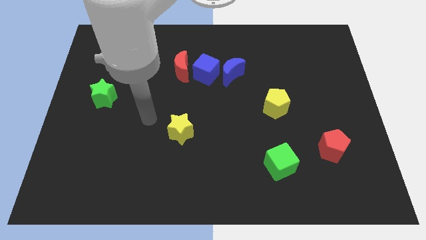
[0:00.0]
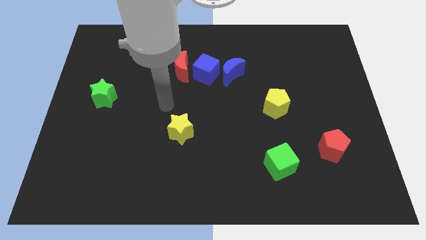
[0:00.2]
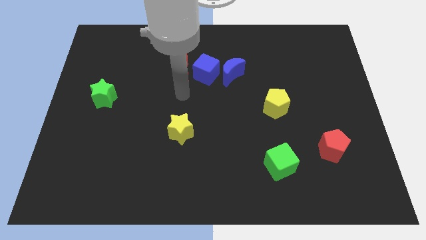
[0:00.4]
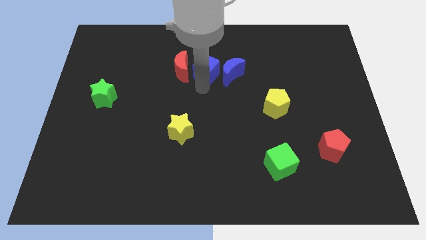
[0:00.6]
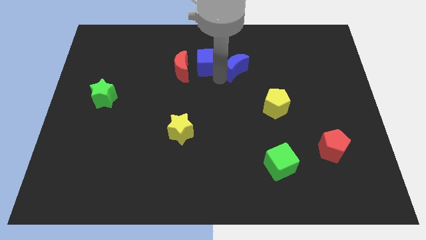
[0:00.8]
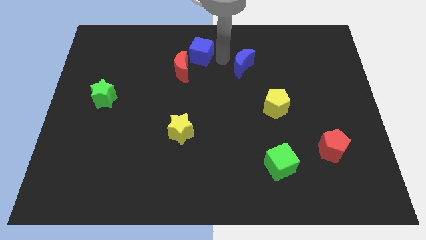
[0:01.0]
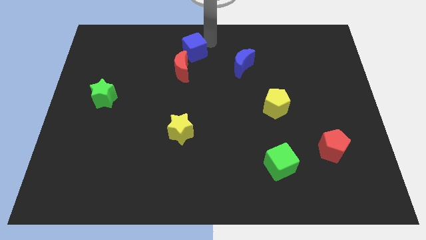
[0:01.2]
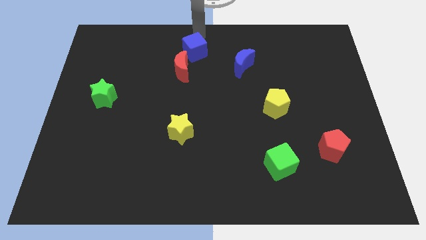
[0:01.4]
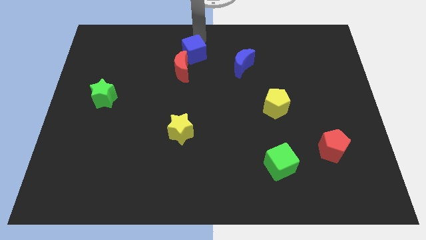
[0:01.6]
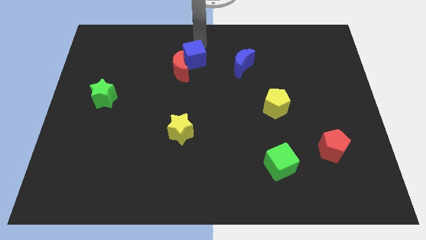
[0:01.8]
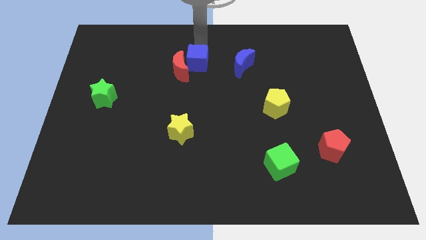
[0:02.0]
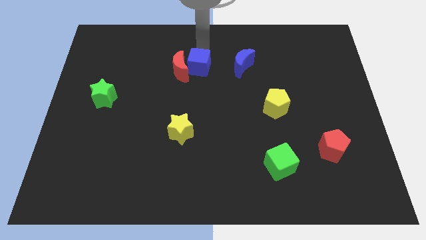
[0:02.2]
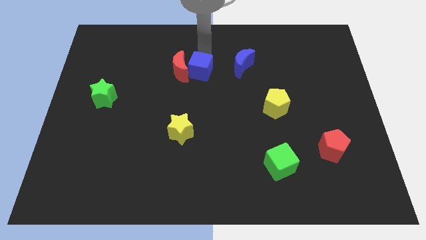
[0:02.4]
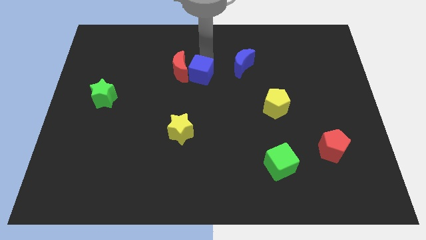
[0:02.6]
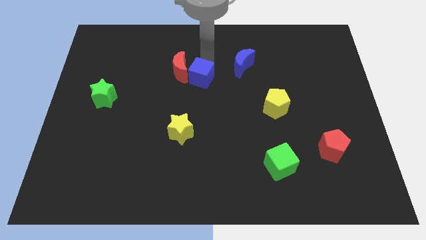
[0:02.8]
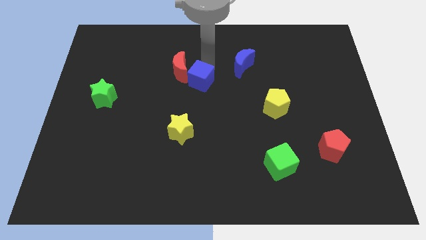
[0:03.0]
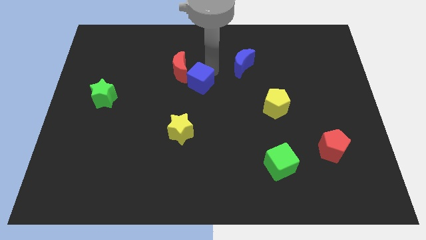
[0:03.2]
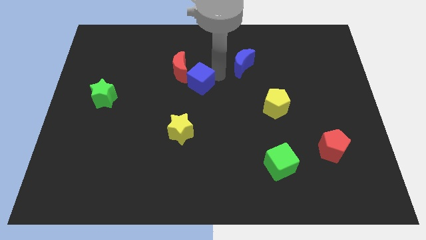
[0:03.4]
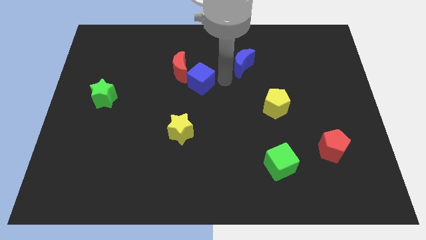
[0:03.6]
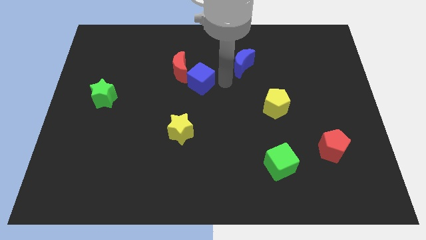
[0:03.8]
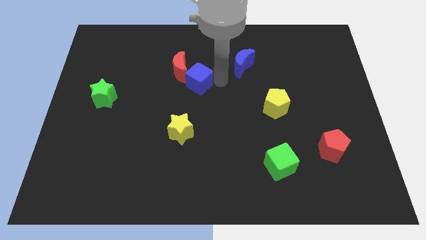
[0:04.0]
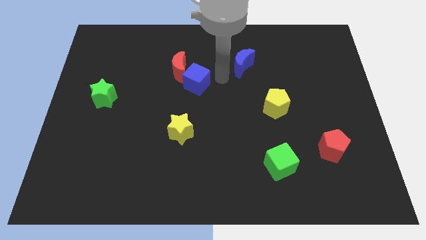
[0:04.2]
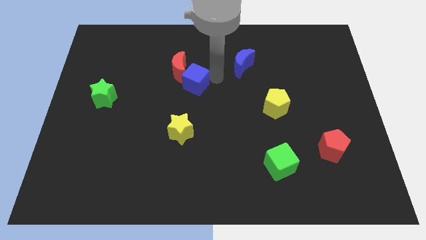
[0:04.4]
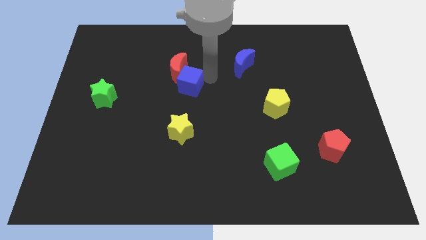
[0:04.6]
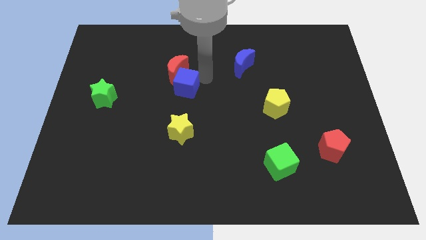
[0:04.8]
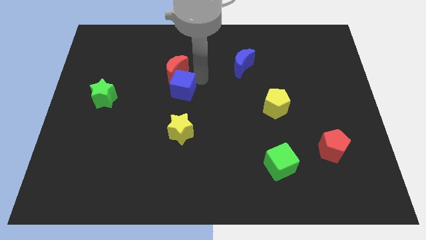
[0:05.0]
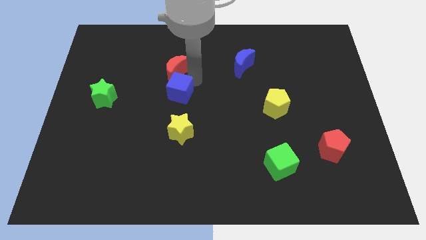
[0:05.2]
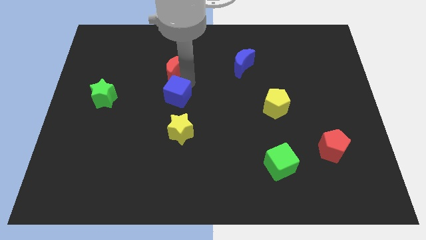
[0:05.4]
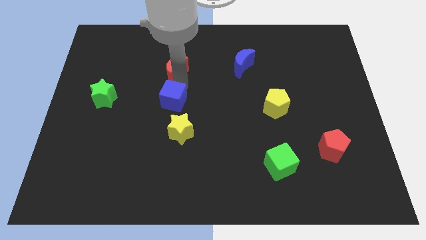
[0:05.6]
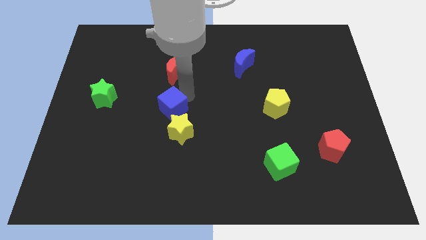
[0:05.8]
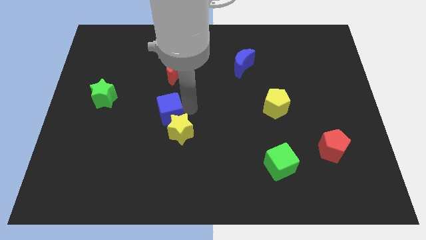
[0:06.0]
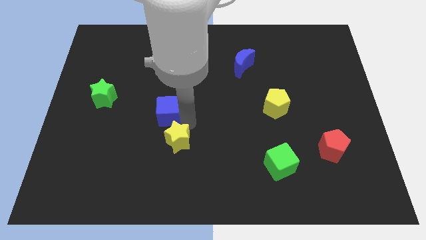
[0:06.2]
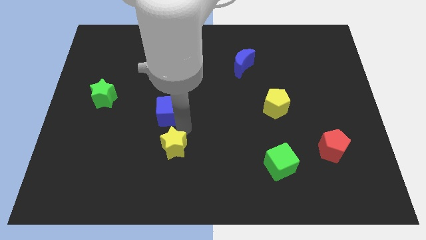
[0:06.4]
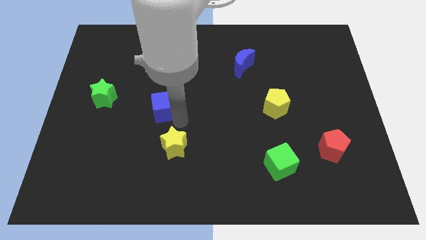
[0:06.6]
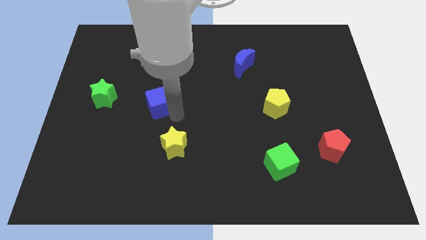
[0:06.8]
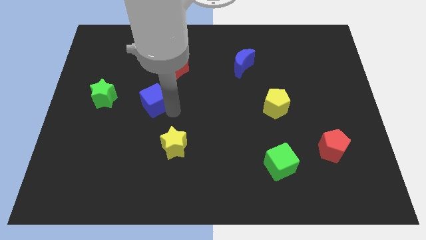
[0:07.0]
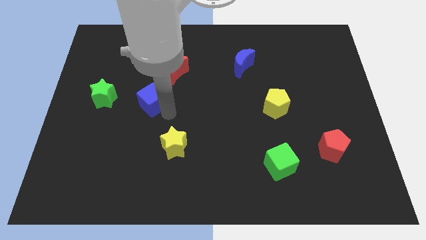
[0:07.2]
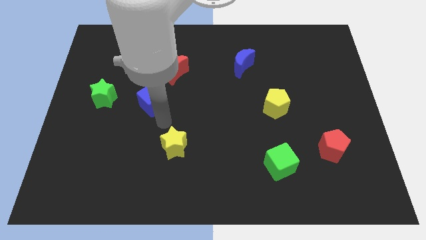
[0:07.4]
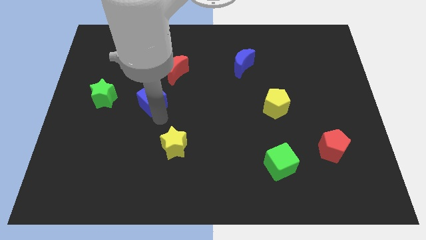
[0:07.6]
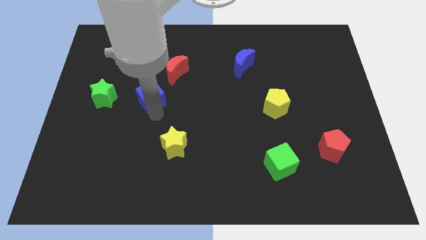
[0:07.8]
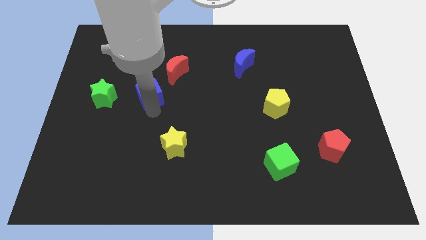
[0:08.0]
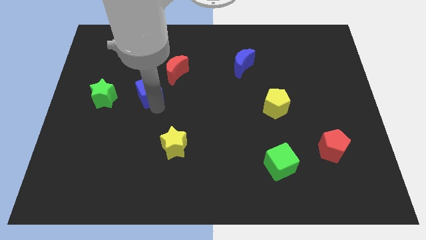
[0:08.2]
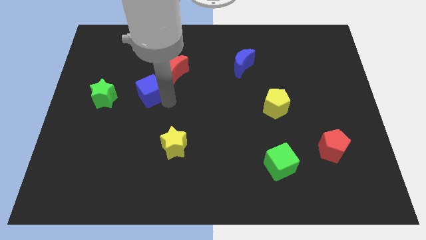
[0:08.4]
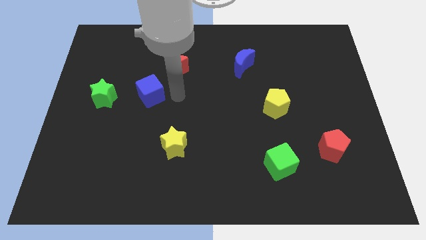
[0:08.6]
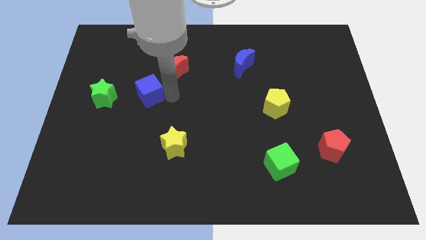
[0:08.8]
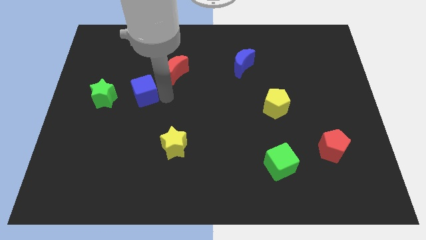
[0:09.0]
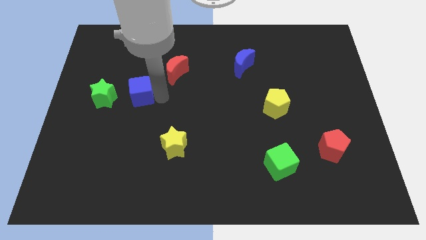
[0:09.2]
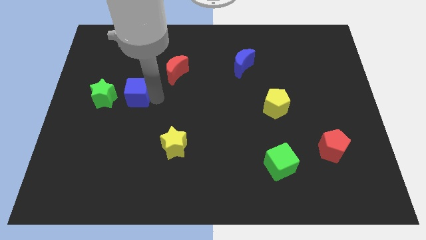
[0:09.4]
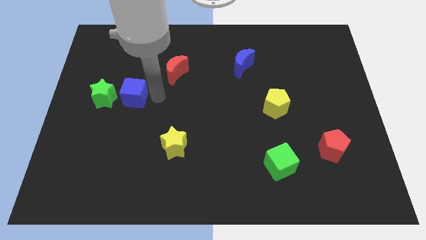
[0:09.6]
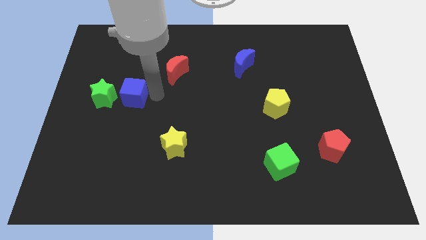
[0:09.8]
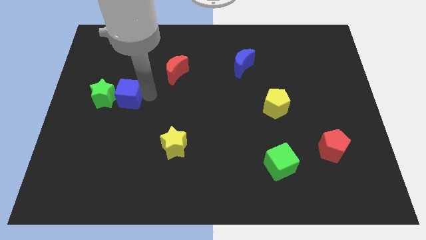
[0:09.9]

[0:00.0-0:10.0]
slide the blue cube close to the green star

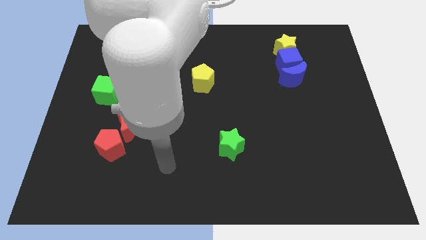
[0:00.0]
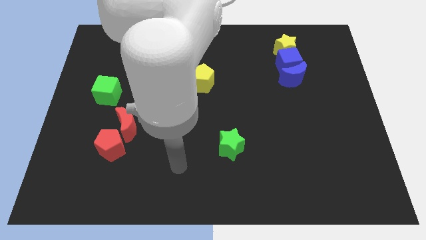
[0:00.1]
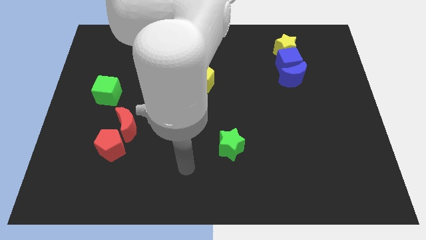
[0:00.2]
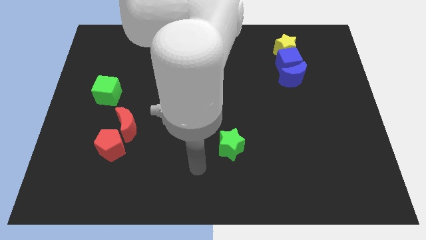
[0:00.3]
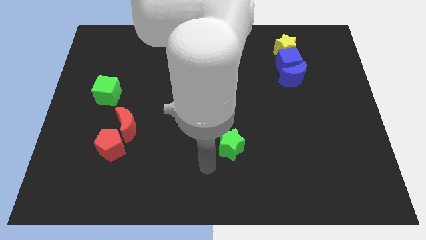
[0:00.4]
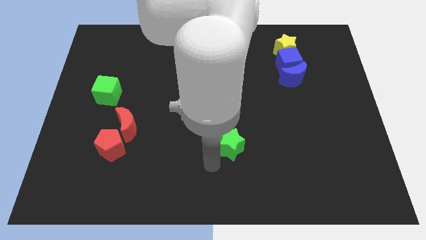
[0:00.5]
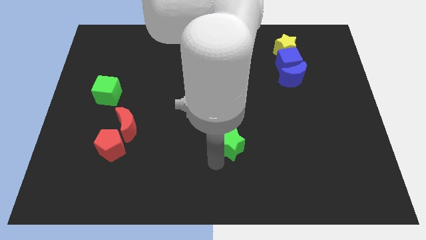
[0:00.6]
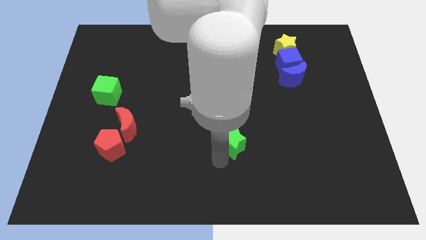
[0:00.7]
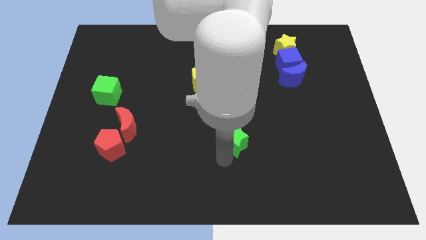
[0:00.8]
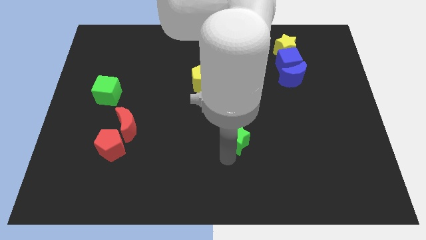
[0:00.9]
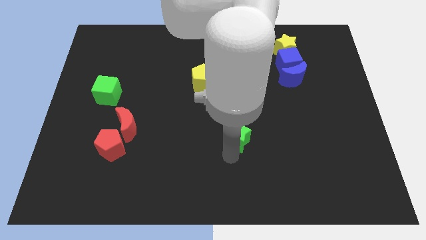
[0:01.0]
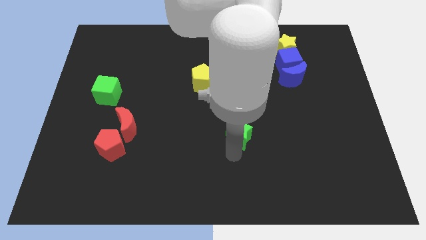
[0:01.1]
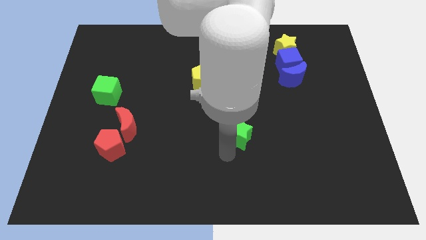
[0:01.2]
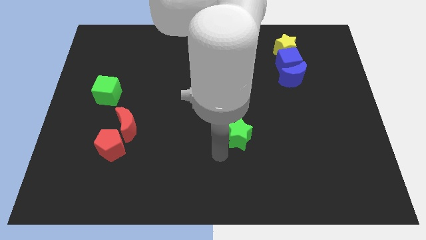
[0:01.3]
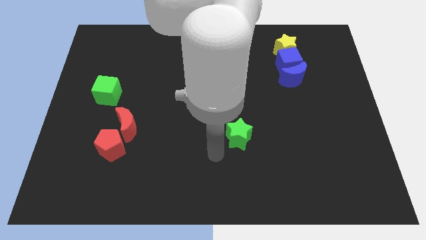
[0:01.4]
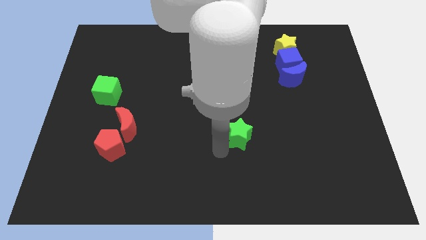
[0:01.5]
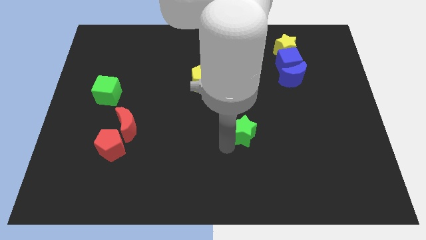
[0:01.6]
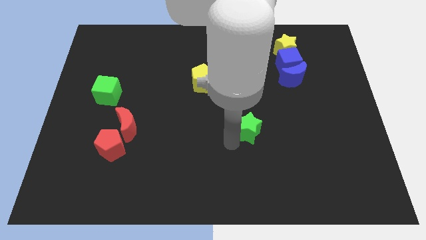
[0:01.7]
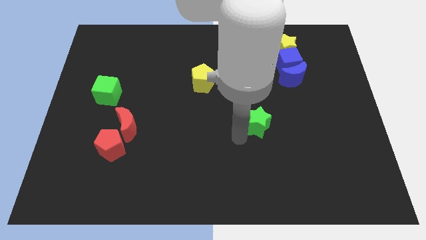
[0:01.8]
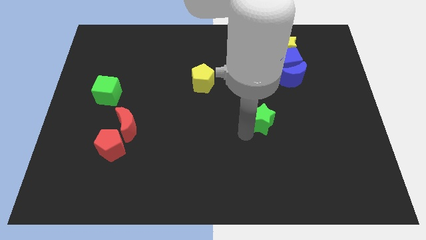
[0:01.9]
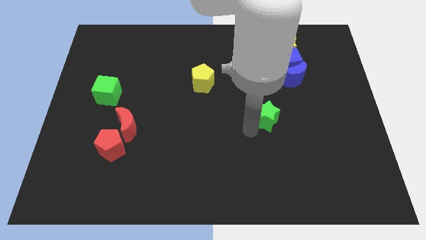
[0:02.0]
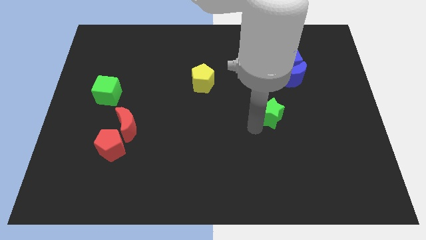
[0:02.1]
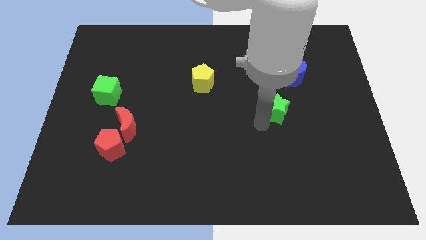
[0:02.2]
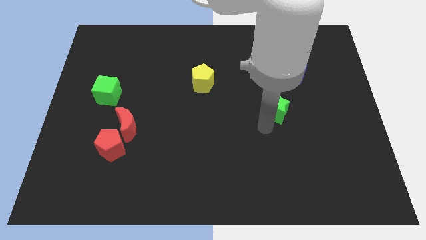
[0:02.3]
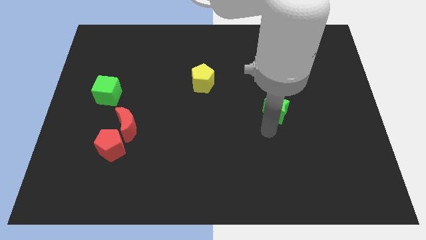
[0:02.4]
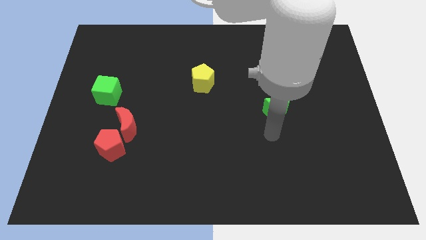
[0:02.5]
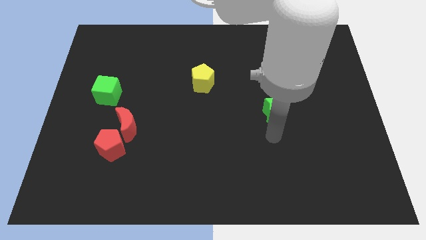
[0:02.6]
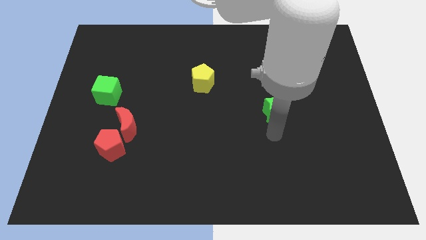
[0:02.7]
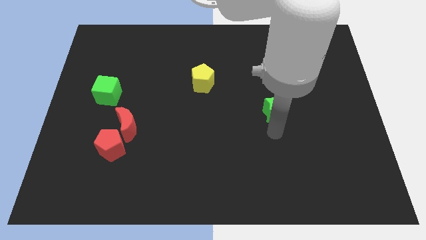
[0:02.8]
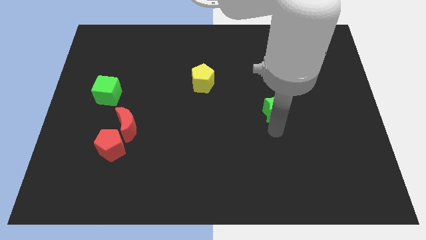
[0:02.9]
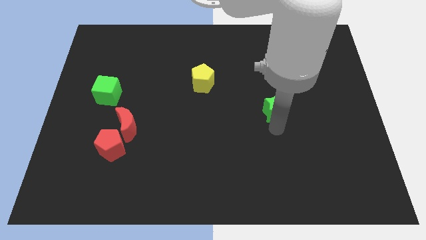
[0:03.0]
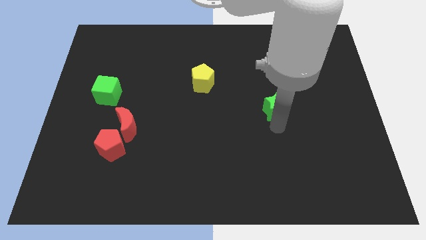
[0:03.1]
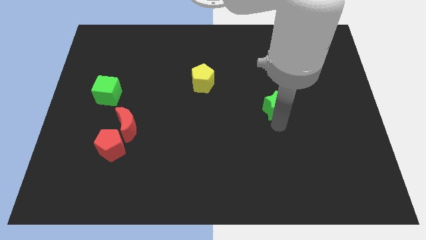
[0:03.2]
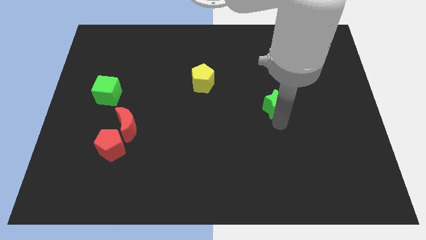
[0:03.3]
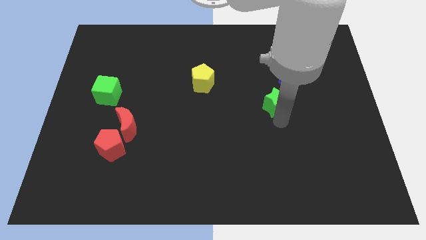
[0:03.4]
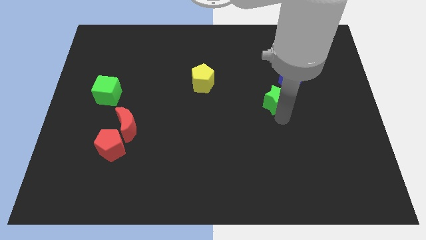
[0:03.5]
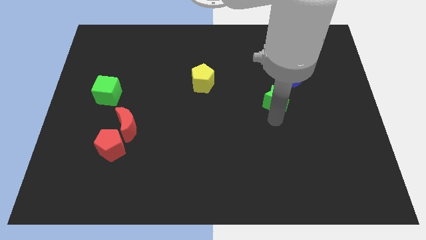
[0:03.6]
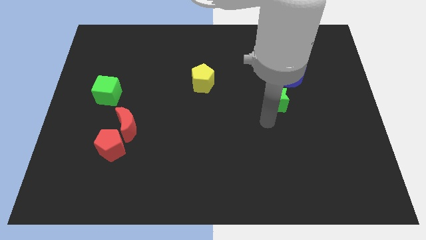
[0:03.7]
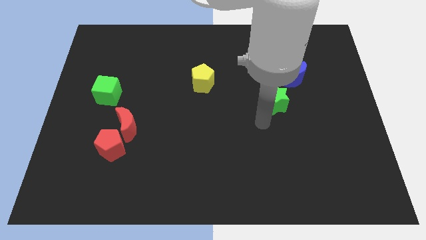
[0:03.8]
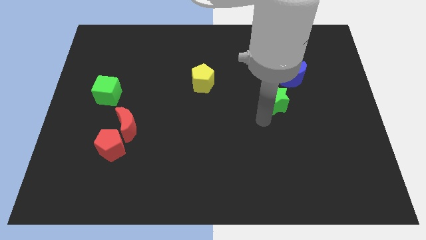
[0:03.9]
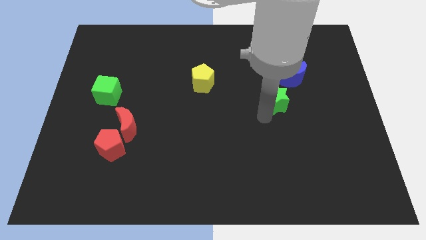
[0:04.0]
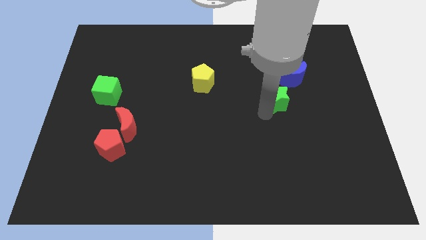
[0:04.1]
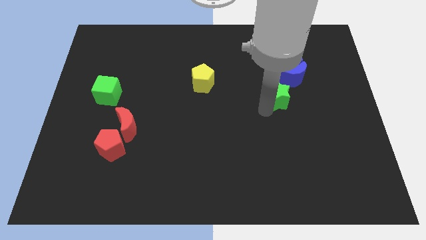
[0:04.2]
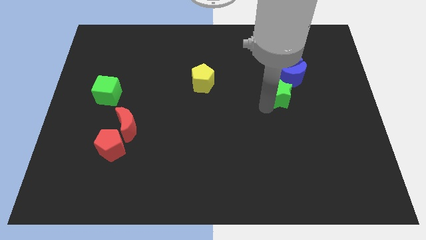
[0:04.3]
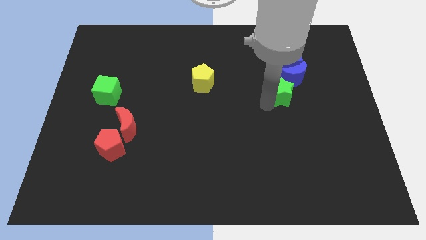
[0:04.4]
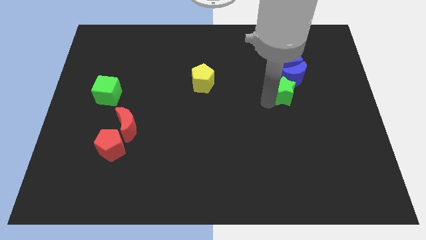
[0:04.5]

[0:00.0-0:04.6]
slide the green star towards the blue moon
